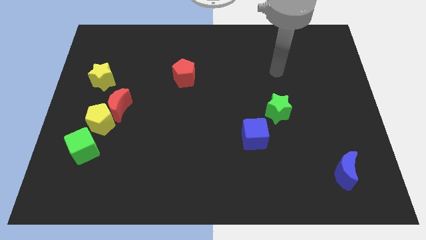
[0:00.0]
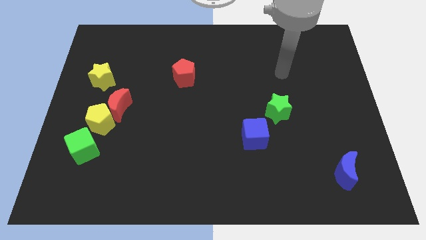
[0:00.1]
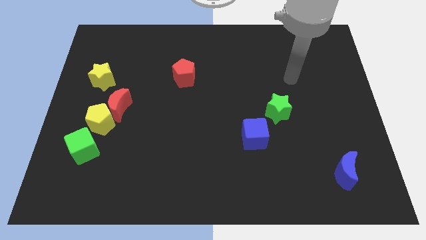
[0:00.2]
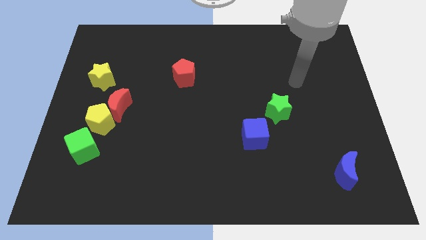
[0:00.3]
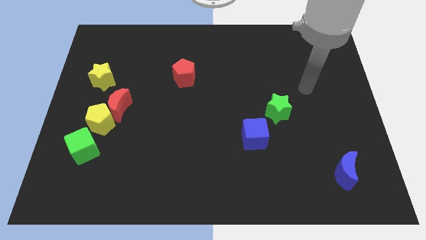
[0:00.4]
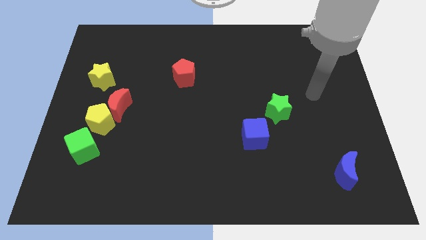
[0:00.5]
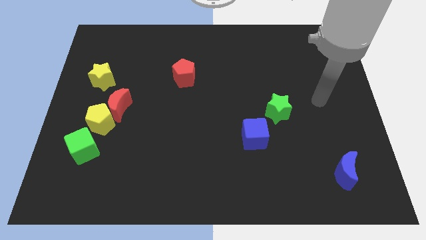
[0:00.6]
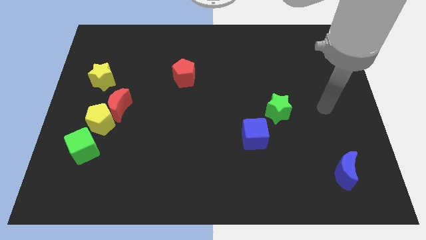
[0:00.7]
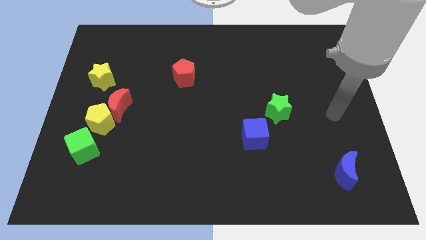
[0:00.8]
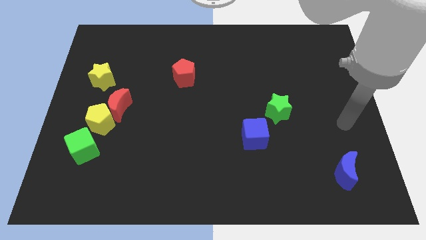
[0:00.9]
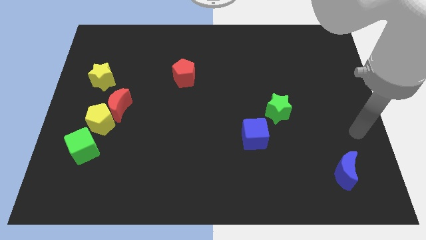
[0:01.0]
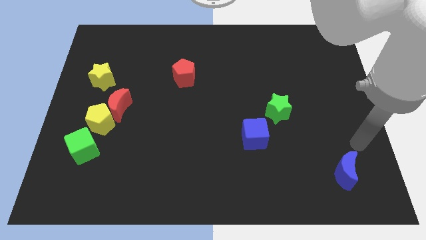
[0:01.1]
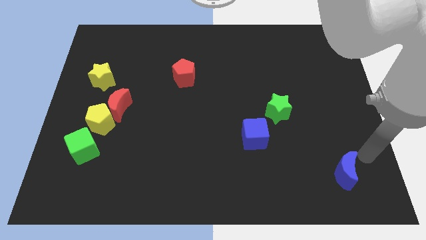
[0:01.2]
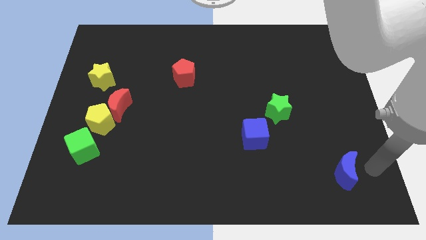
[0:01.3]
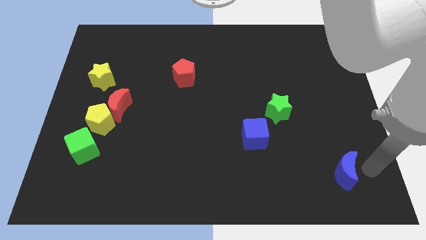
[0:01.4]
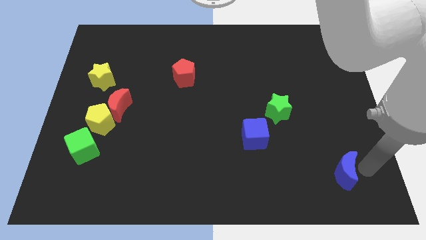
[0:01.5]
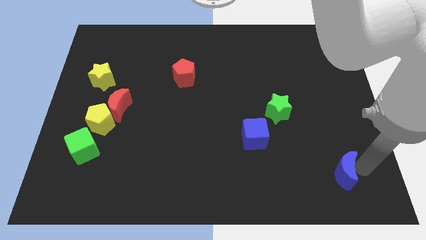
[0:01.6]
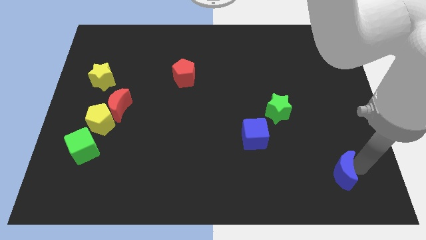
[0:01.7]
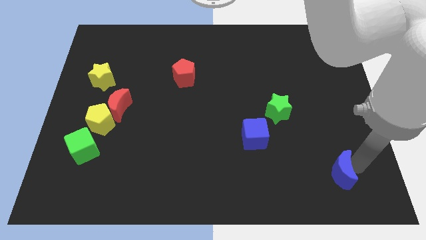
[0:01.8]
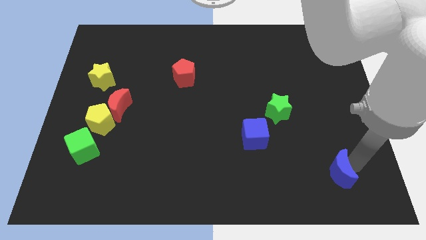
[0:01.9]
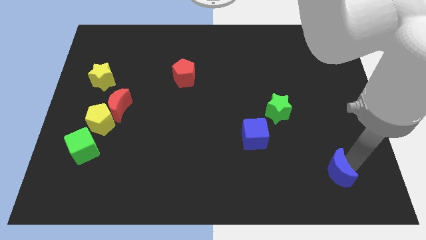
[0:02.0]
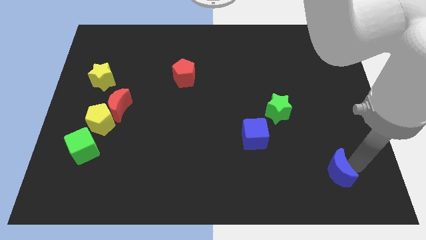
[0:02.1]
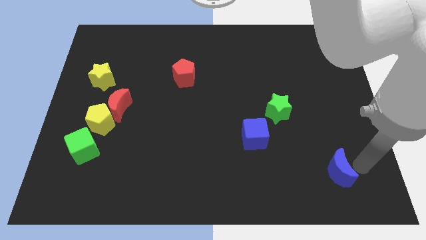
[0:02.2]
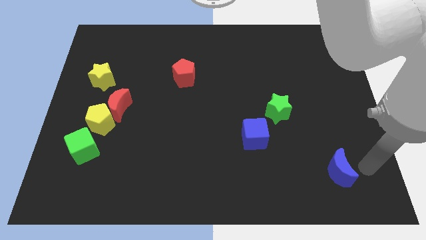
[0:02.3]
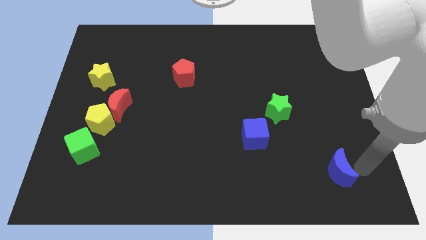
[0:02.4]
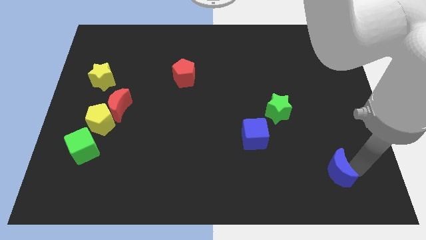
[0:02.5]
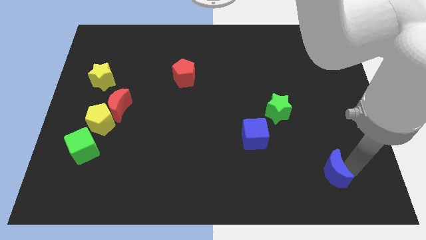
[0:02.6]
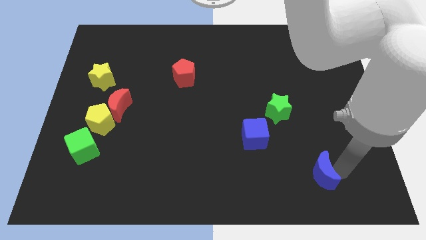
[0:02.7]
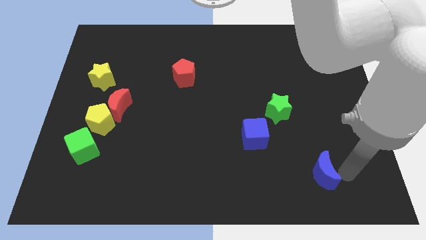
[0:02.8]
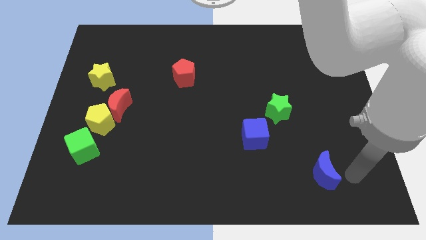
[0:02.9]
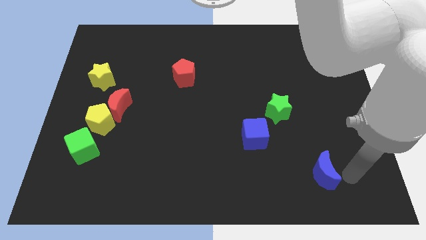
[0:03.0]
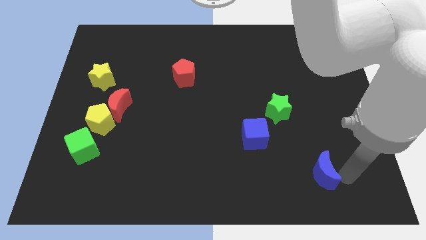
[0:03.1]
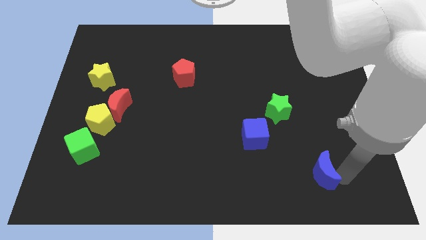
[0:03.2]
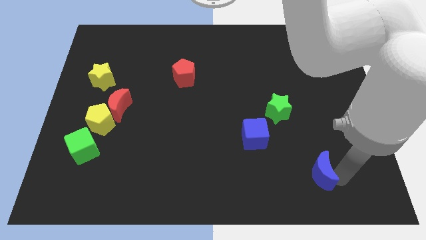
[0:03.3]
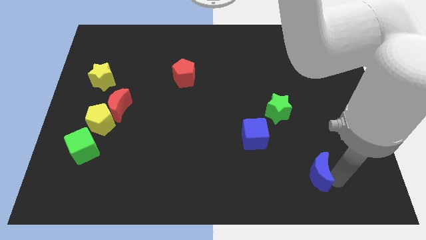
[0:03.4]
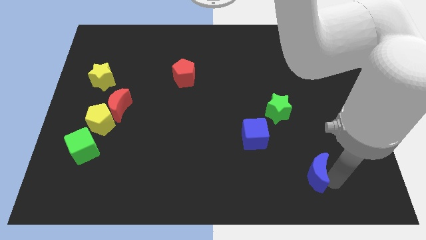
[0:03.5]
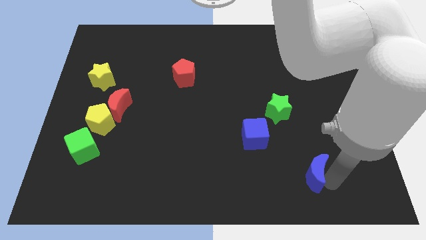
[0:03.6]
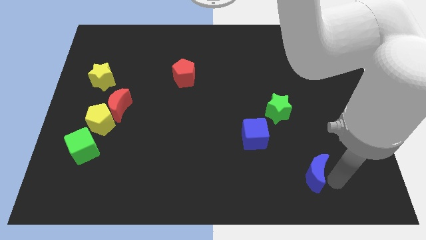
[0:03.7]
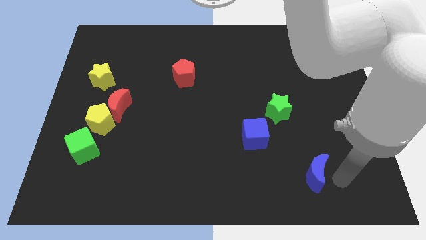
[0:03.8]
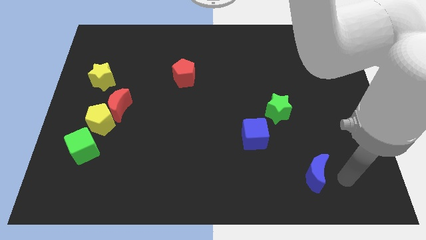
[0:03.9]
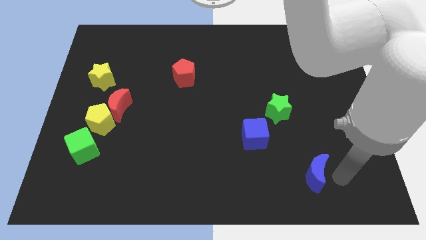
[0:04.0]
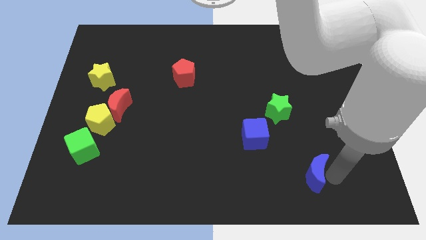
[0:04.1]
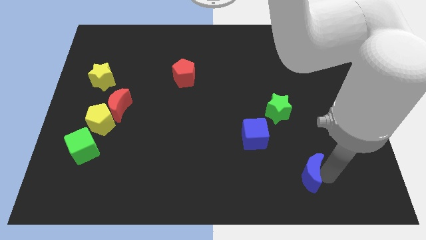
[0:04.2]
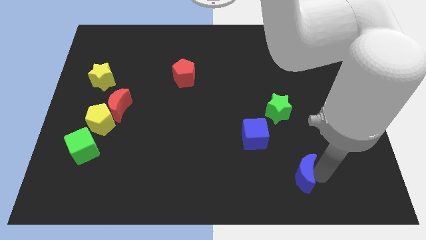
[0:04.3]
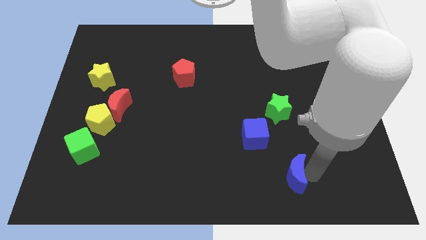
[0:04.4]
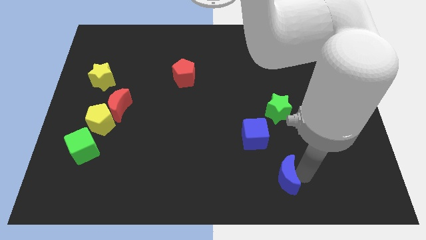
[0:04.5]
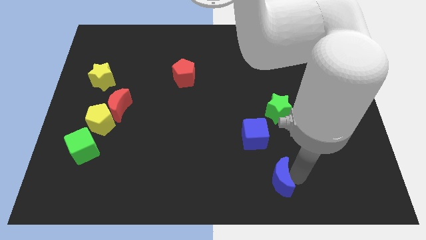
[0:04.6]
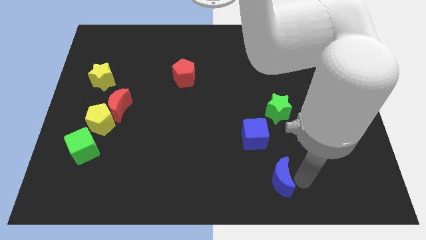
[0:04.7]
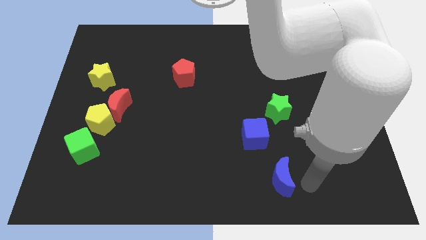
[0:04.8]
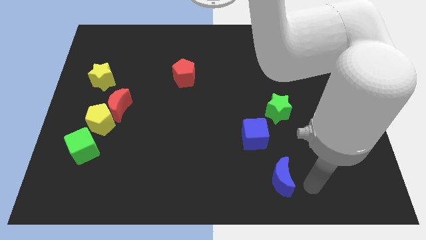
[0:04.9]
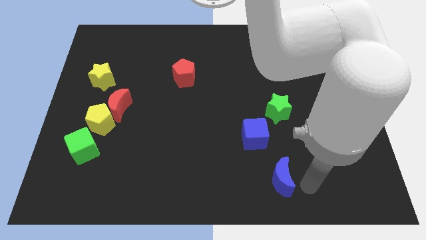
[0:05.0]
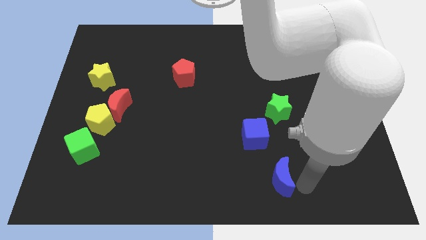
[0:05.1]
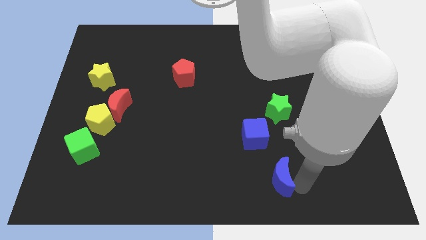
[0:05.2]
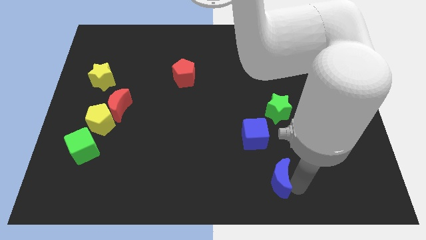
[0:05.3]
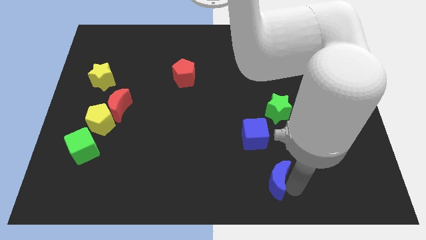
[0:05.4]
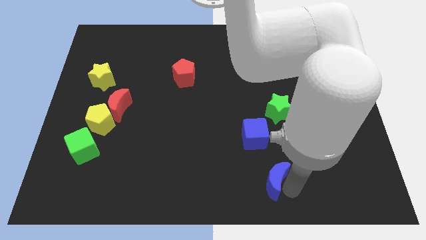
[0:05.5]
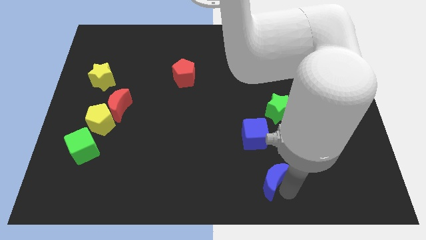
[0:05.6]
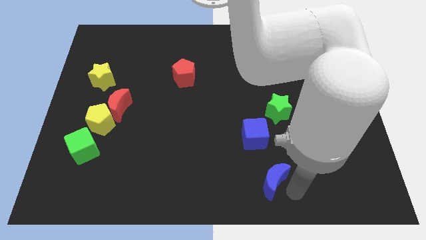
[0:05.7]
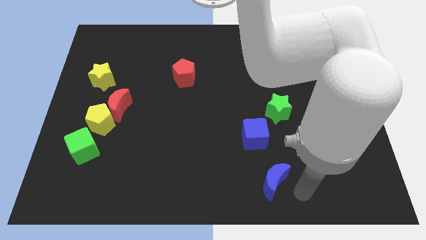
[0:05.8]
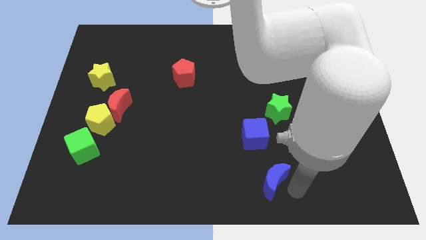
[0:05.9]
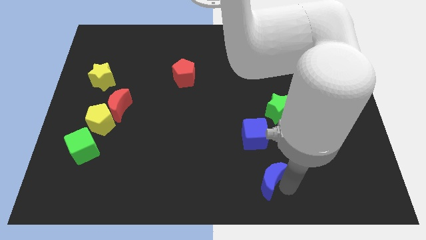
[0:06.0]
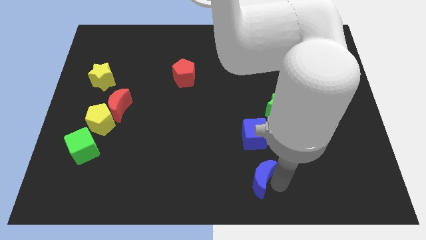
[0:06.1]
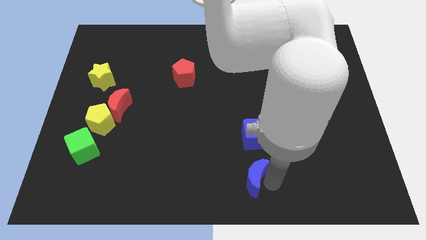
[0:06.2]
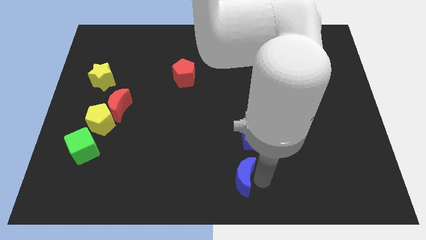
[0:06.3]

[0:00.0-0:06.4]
move the blue moon to the left

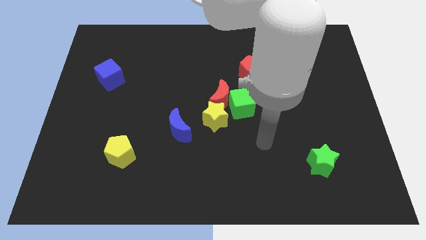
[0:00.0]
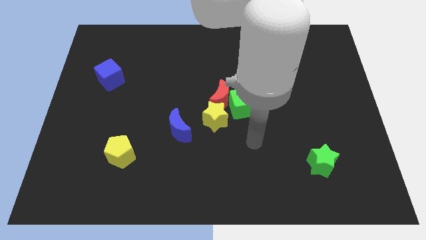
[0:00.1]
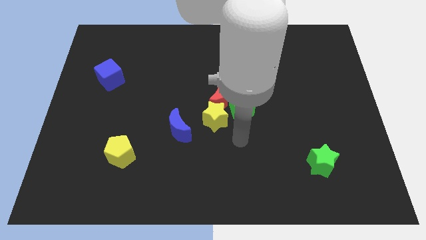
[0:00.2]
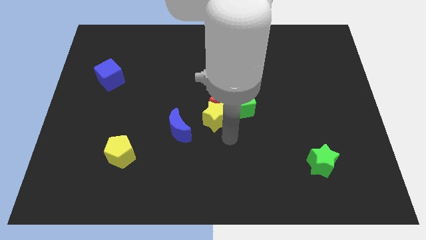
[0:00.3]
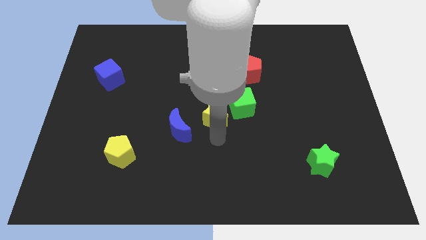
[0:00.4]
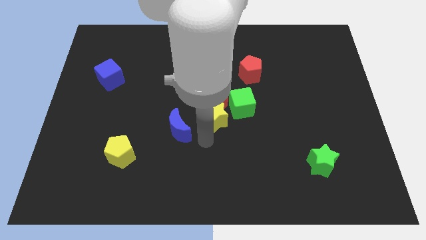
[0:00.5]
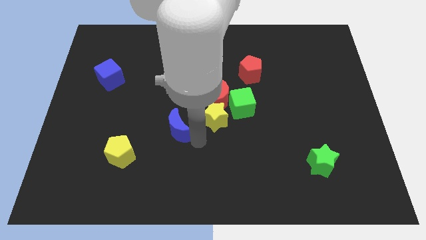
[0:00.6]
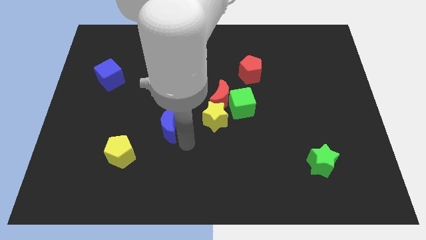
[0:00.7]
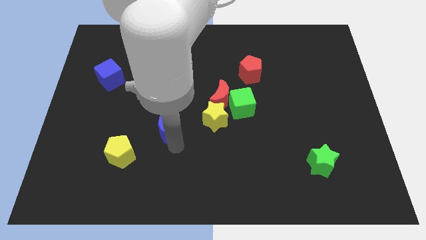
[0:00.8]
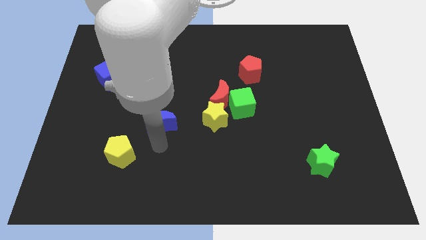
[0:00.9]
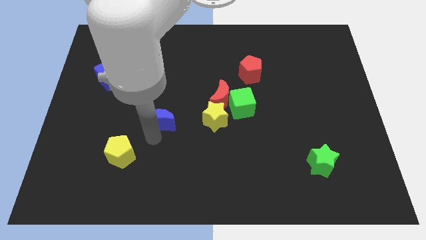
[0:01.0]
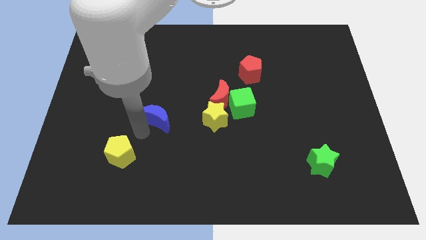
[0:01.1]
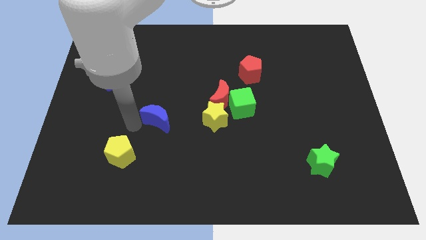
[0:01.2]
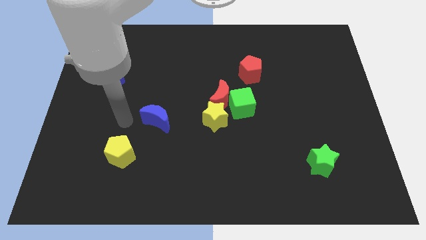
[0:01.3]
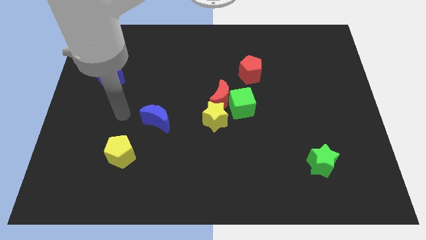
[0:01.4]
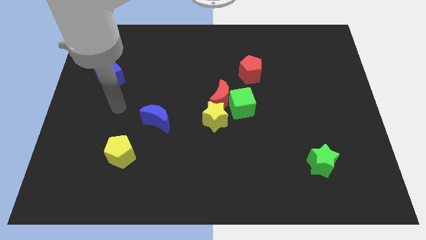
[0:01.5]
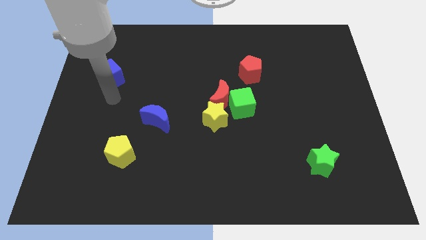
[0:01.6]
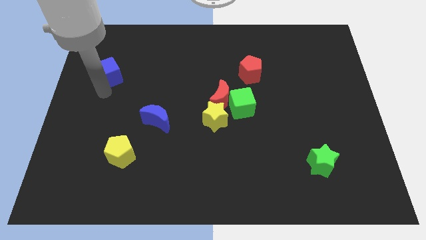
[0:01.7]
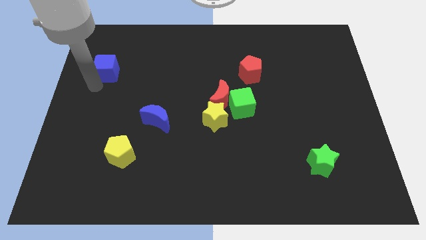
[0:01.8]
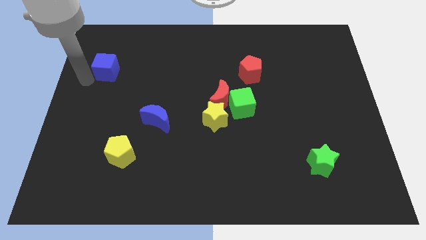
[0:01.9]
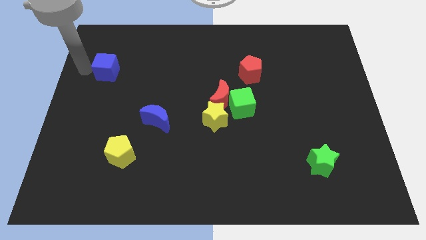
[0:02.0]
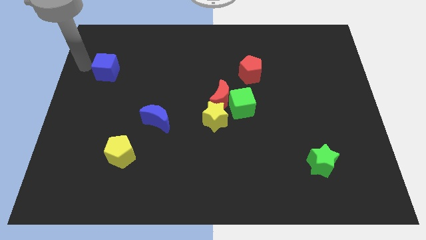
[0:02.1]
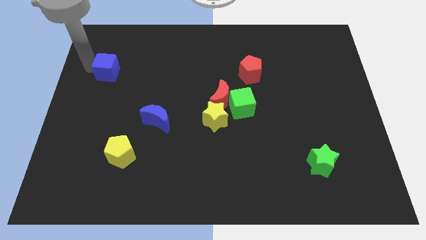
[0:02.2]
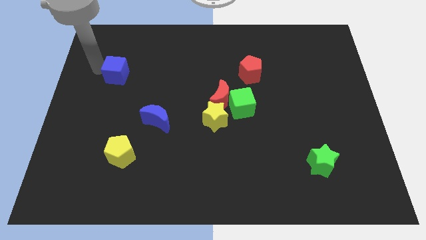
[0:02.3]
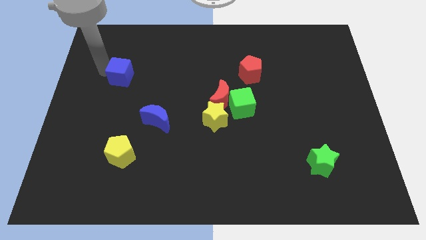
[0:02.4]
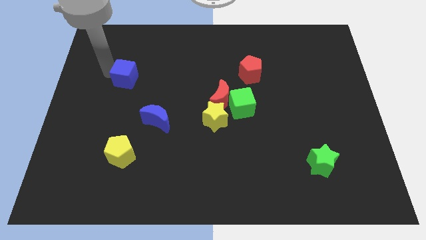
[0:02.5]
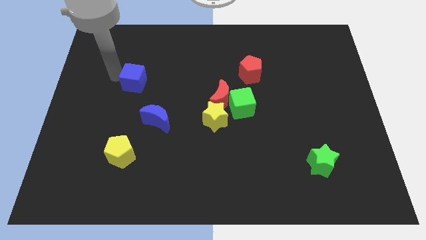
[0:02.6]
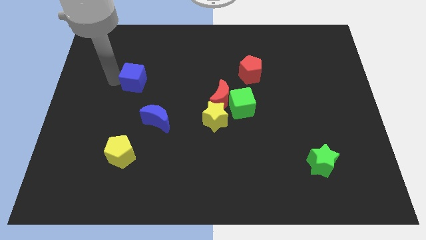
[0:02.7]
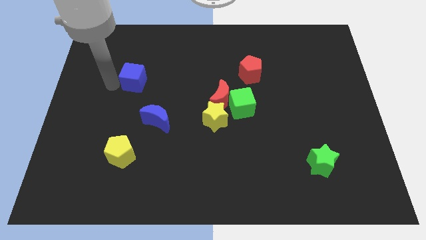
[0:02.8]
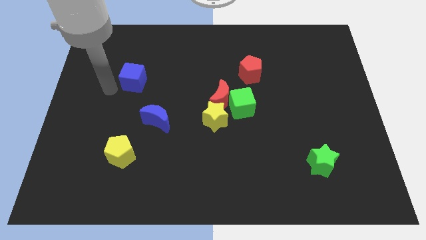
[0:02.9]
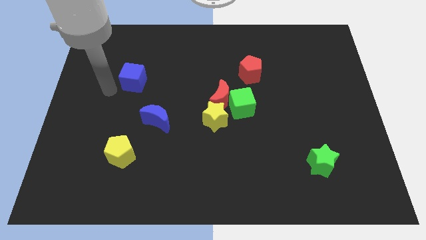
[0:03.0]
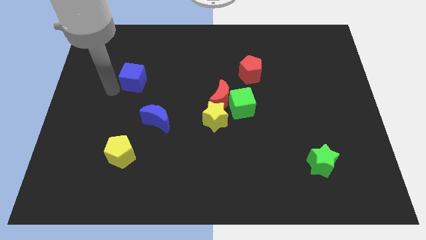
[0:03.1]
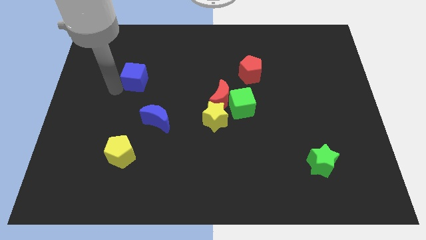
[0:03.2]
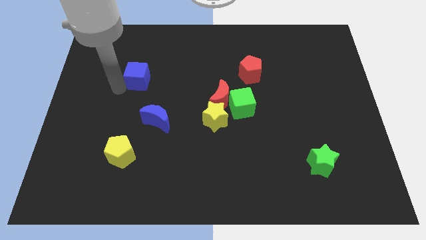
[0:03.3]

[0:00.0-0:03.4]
slightly move the blue cube to the right
